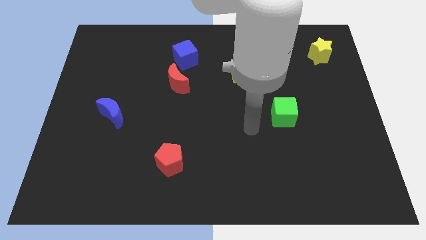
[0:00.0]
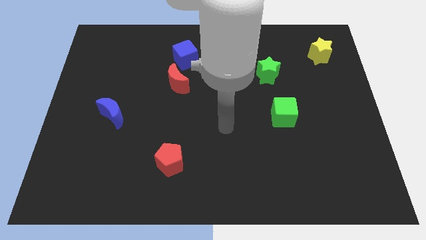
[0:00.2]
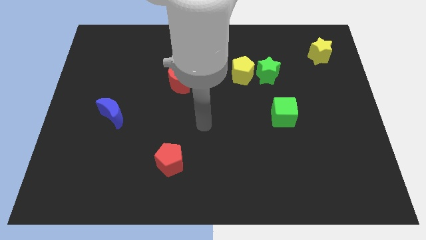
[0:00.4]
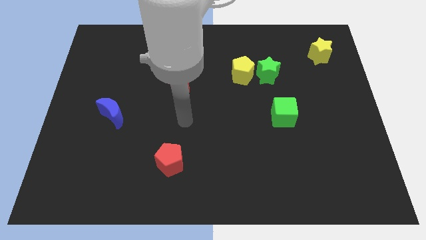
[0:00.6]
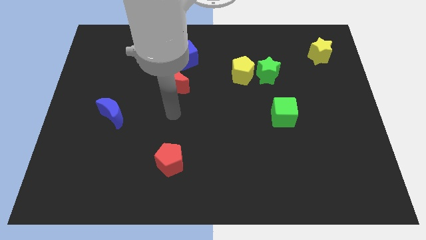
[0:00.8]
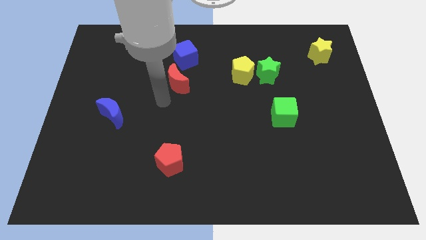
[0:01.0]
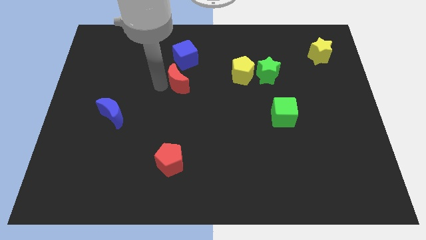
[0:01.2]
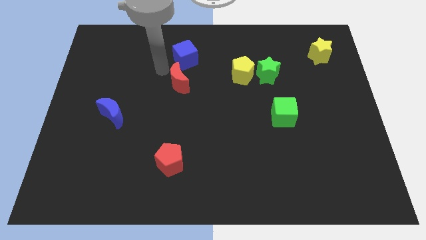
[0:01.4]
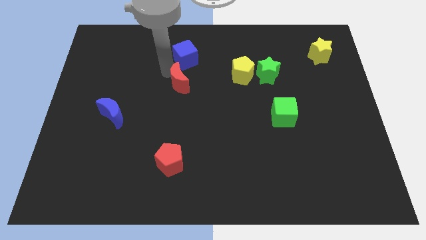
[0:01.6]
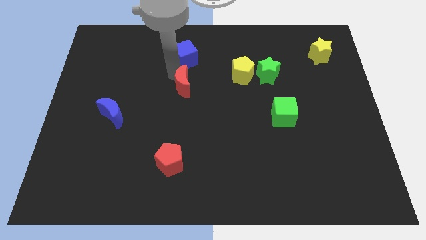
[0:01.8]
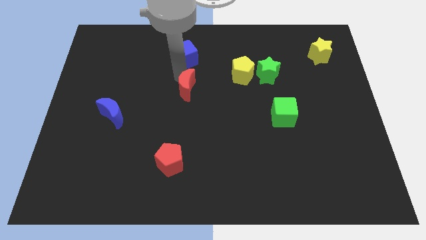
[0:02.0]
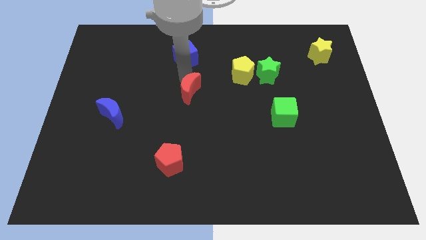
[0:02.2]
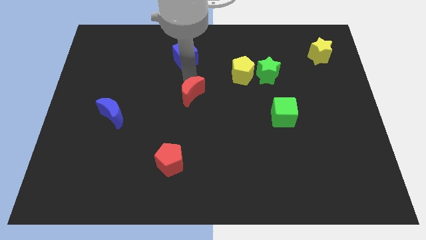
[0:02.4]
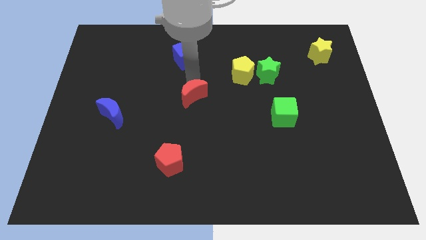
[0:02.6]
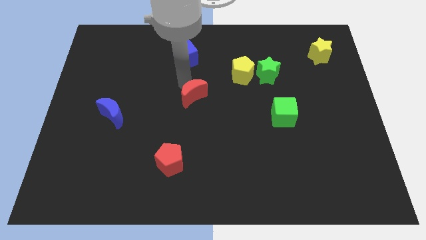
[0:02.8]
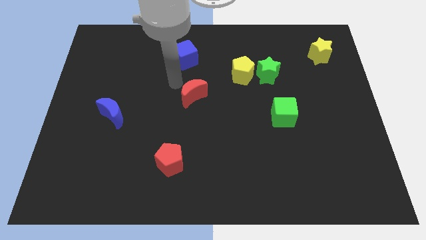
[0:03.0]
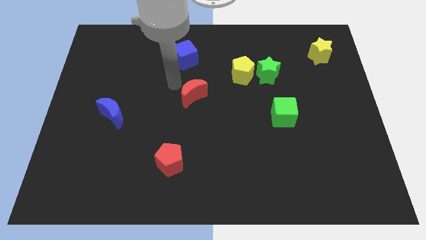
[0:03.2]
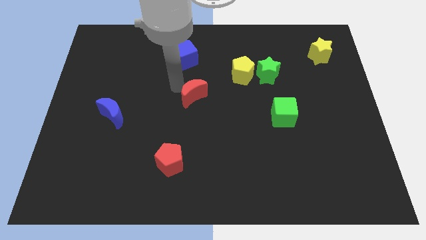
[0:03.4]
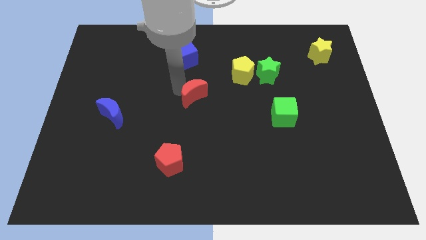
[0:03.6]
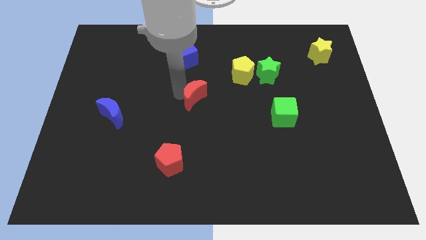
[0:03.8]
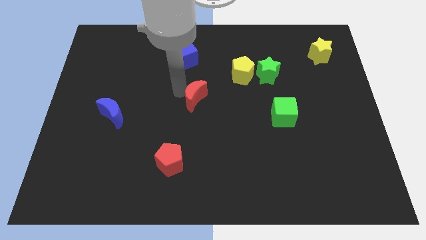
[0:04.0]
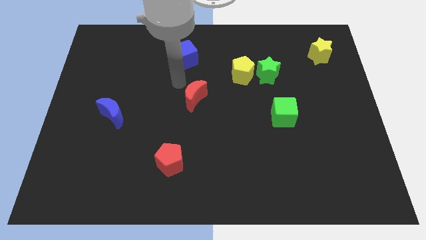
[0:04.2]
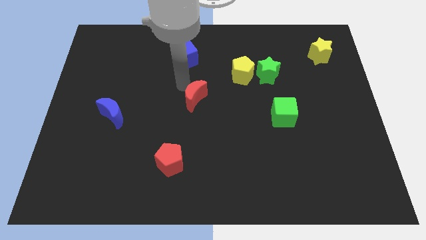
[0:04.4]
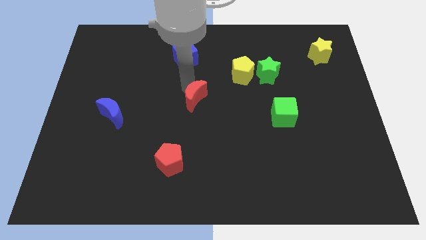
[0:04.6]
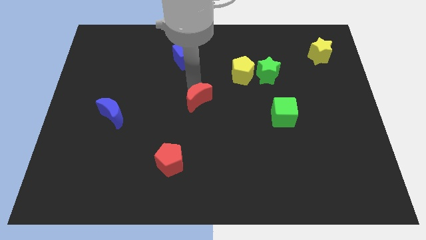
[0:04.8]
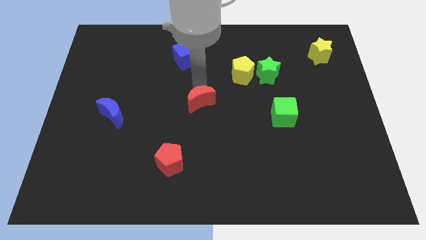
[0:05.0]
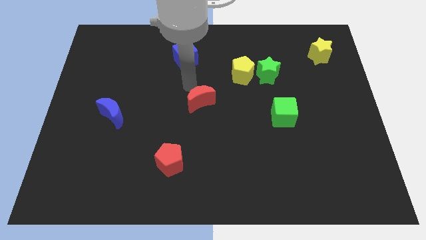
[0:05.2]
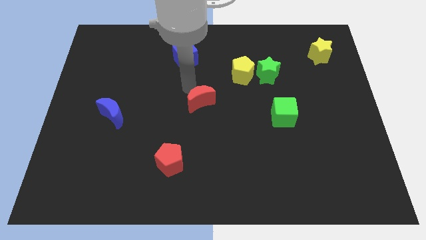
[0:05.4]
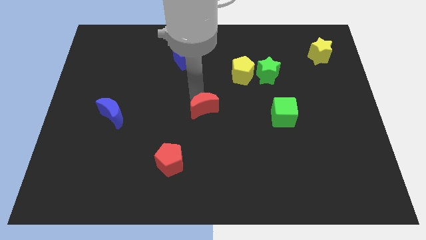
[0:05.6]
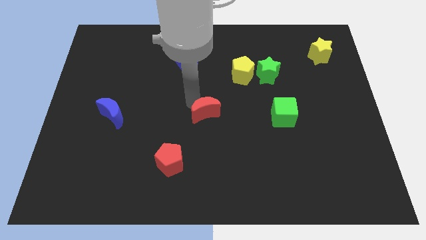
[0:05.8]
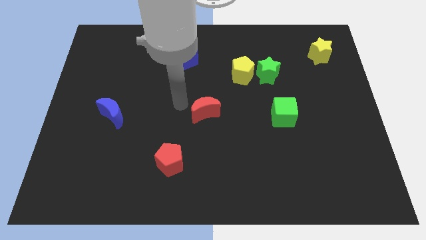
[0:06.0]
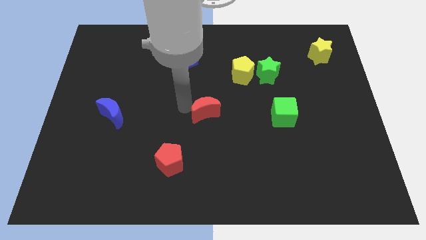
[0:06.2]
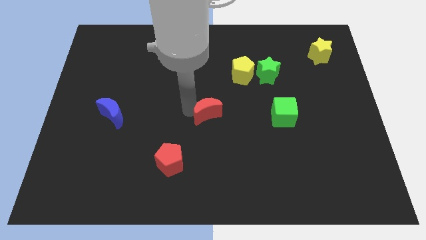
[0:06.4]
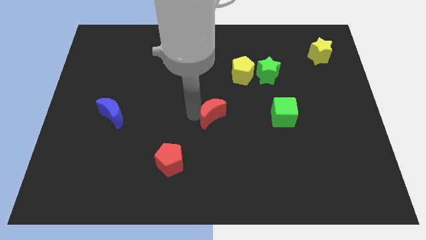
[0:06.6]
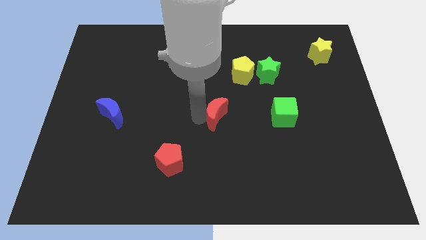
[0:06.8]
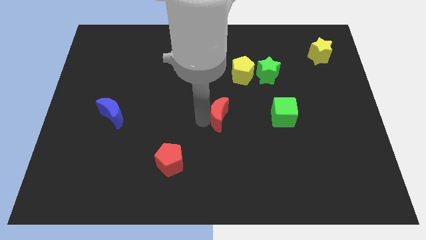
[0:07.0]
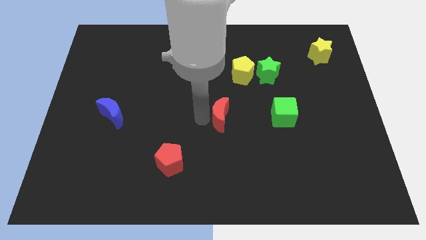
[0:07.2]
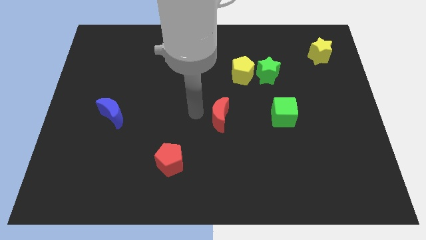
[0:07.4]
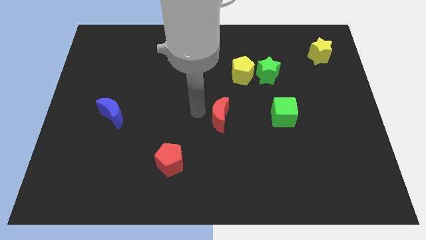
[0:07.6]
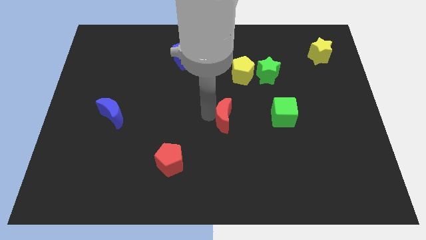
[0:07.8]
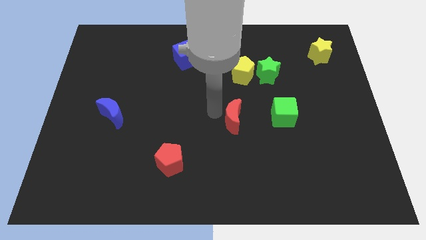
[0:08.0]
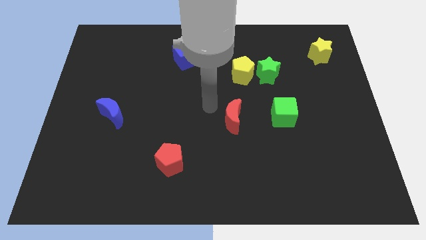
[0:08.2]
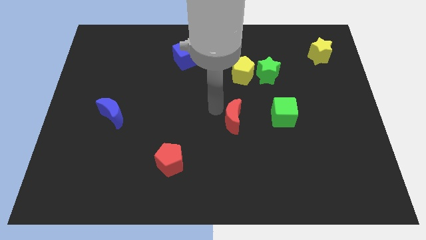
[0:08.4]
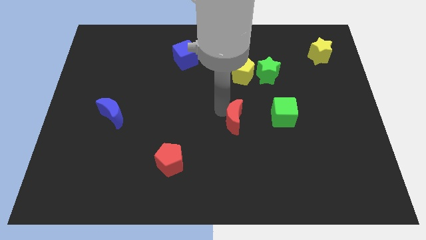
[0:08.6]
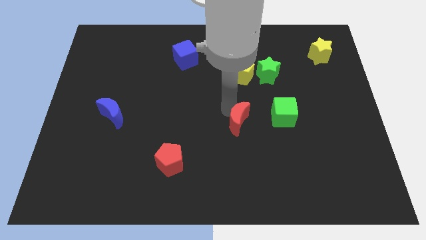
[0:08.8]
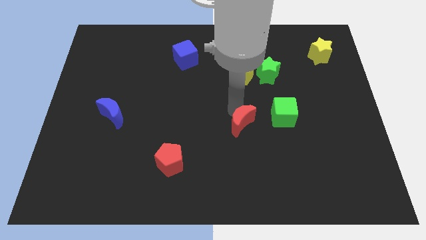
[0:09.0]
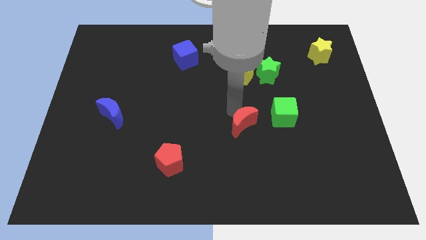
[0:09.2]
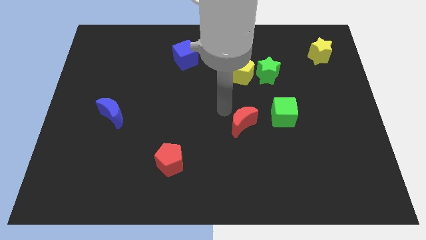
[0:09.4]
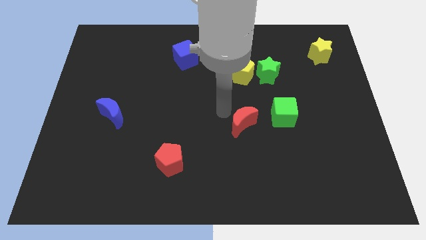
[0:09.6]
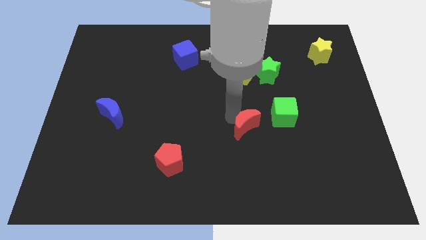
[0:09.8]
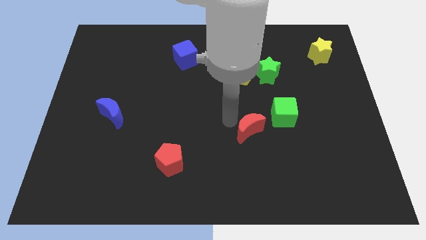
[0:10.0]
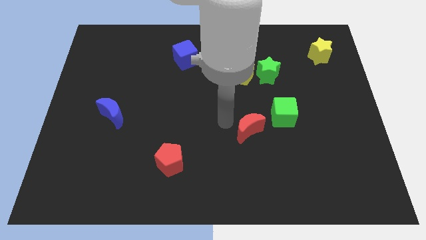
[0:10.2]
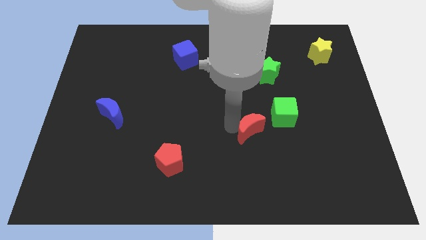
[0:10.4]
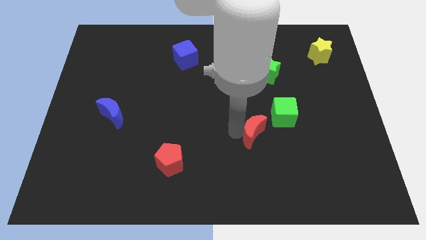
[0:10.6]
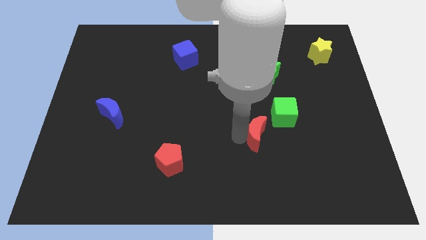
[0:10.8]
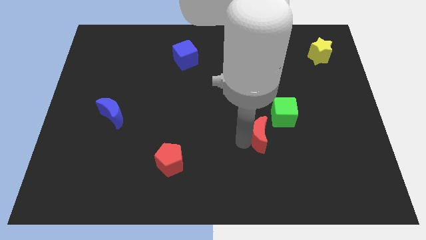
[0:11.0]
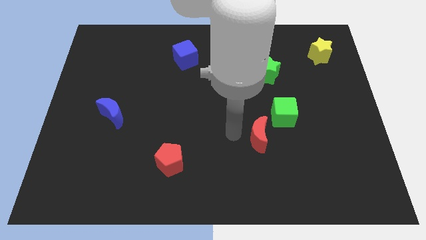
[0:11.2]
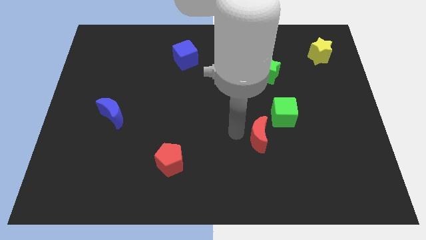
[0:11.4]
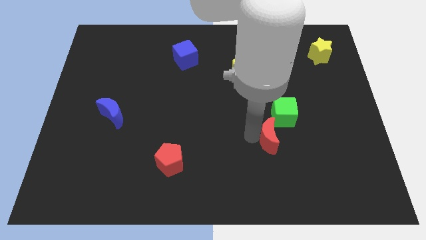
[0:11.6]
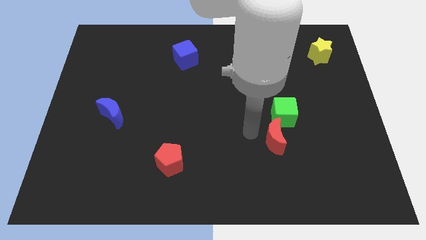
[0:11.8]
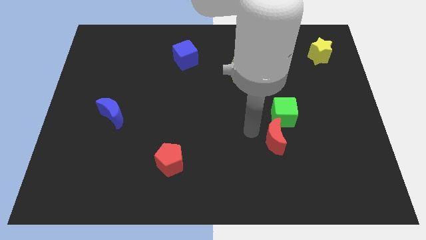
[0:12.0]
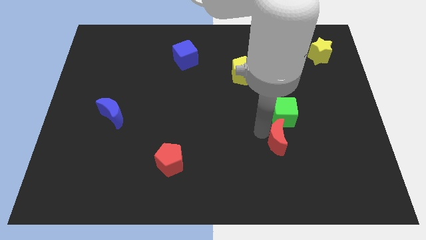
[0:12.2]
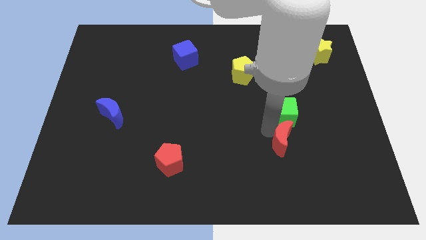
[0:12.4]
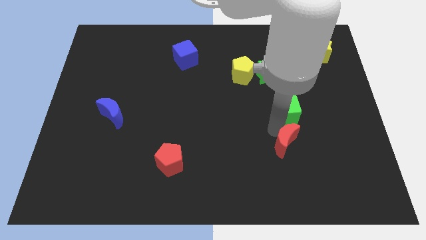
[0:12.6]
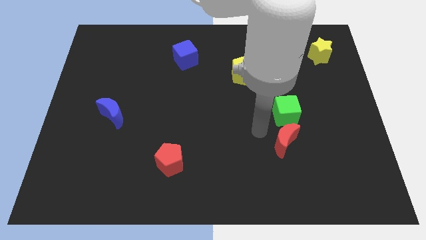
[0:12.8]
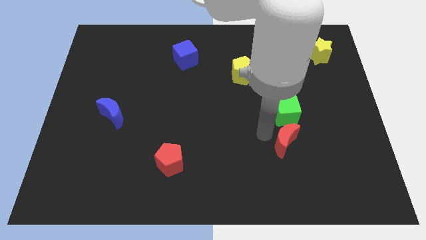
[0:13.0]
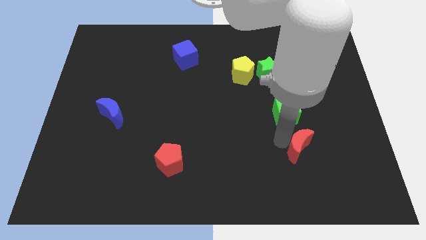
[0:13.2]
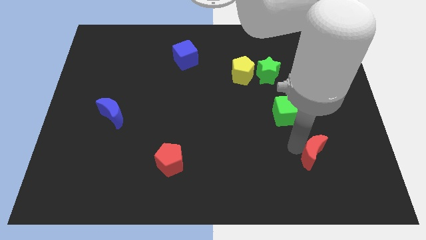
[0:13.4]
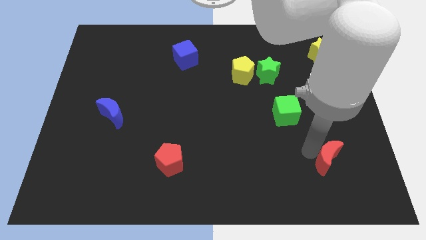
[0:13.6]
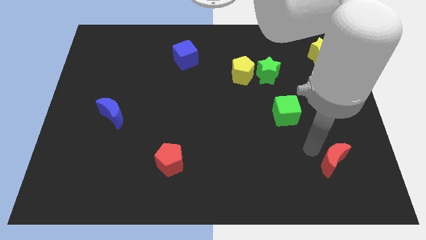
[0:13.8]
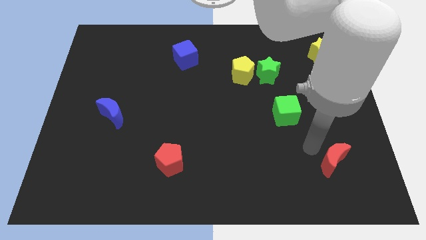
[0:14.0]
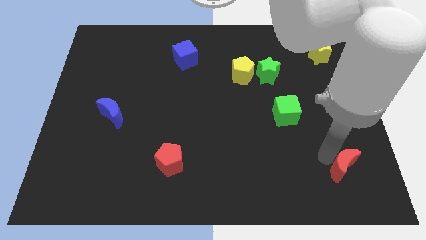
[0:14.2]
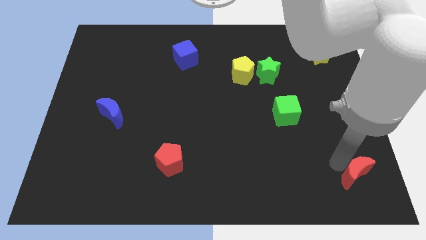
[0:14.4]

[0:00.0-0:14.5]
move the red moon to the bottom right

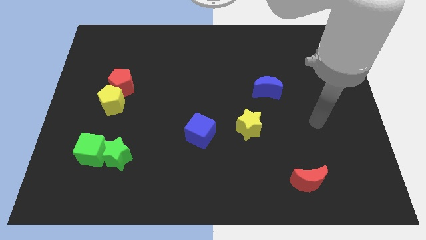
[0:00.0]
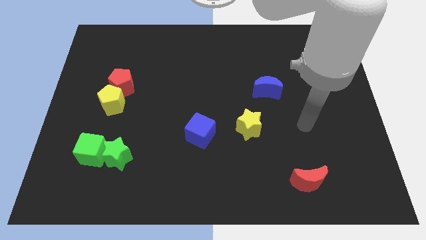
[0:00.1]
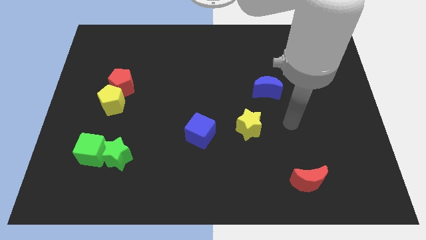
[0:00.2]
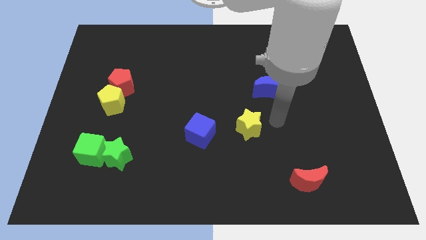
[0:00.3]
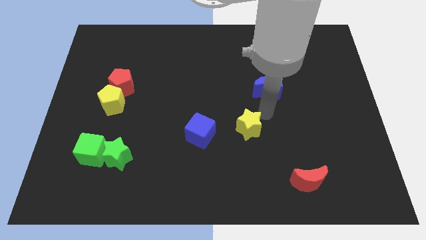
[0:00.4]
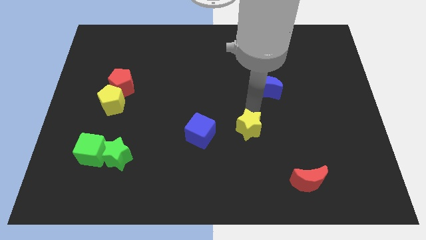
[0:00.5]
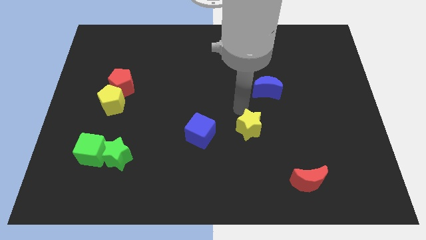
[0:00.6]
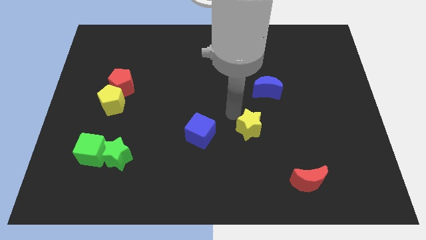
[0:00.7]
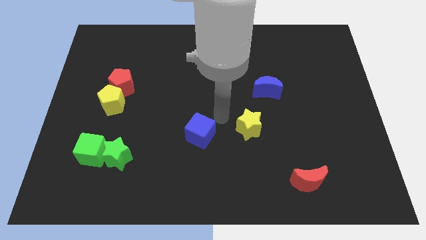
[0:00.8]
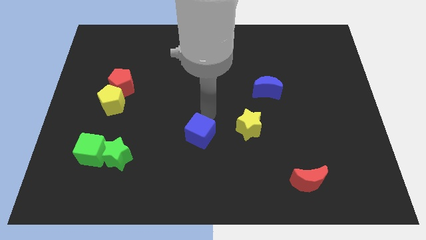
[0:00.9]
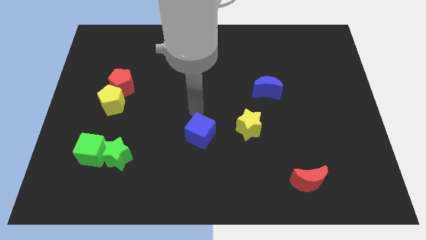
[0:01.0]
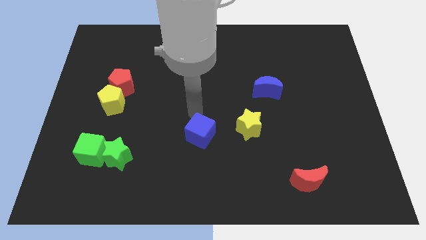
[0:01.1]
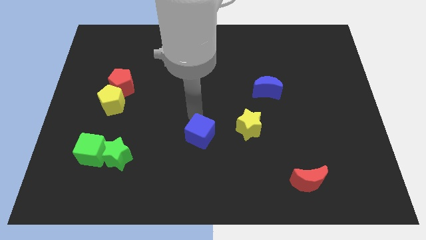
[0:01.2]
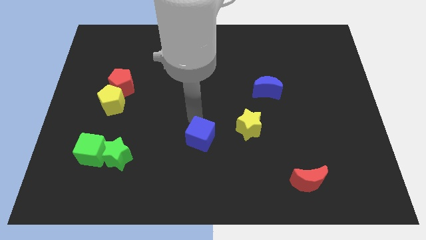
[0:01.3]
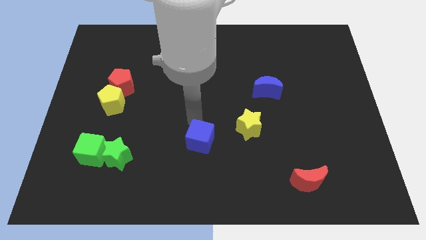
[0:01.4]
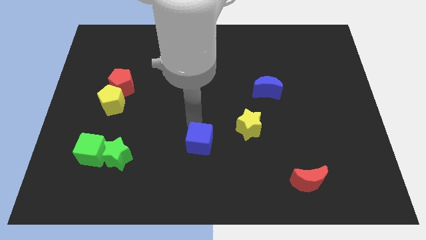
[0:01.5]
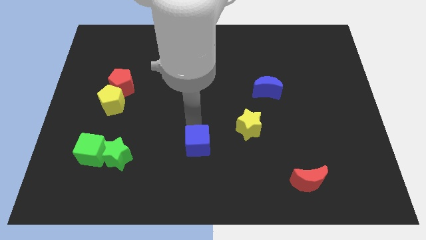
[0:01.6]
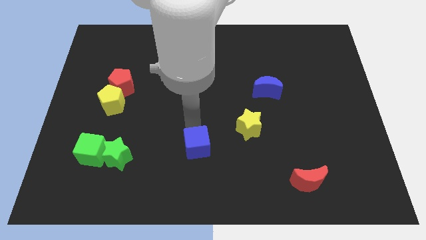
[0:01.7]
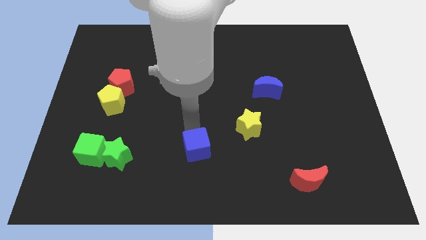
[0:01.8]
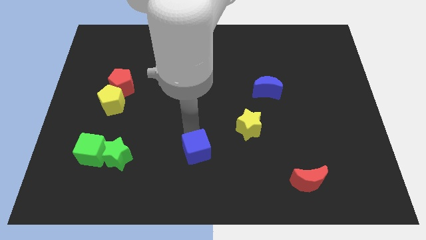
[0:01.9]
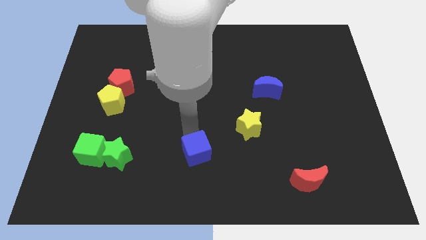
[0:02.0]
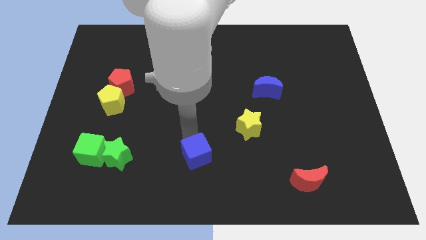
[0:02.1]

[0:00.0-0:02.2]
slide the blue cube to the bottom side
